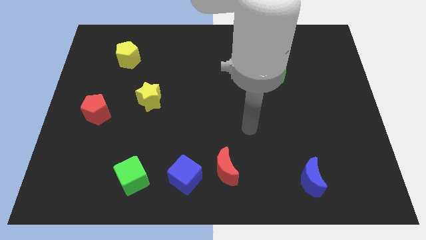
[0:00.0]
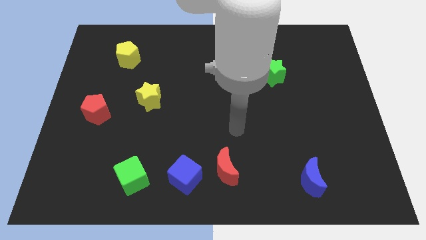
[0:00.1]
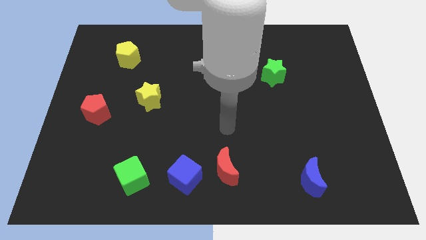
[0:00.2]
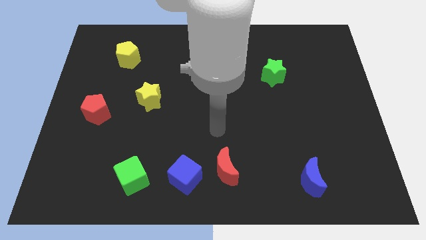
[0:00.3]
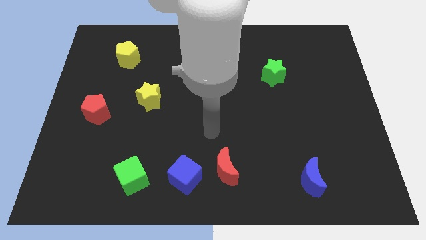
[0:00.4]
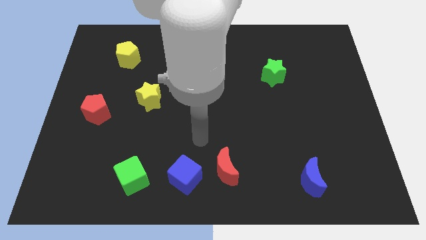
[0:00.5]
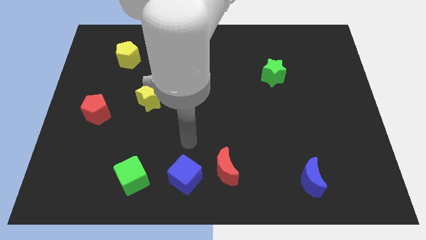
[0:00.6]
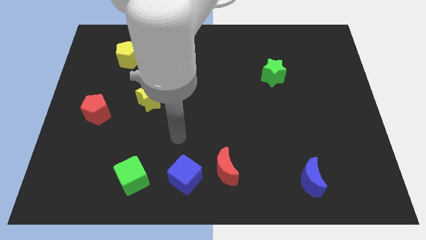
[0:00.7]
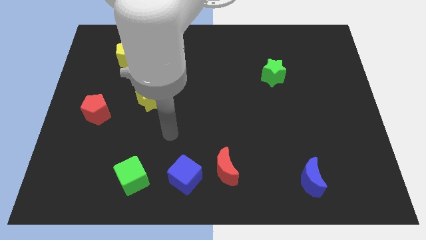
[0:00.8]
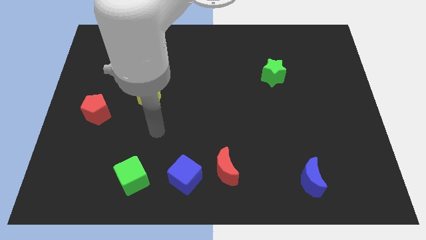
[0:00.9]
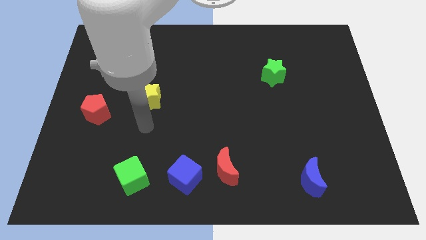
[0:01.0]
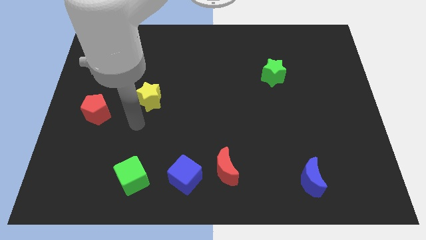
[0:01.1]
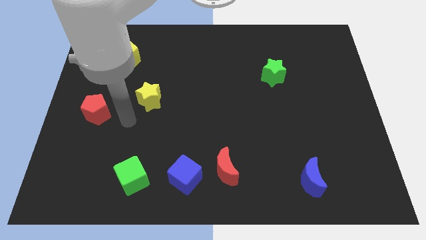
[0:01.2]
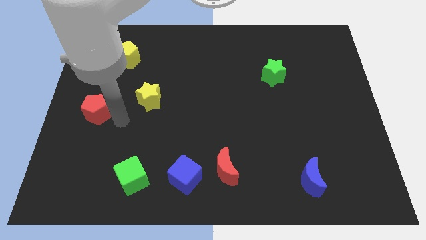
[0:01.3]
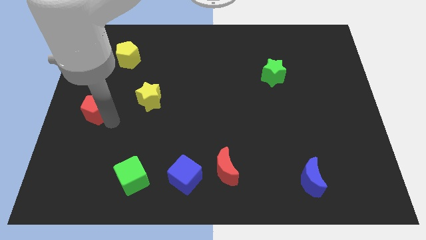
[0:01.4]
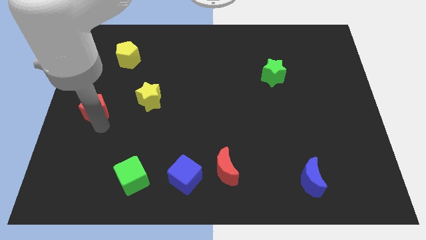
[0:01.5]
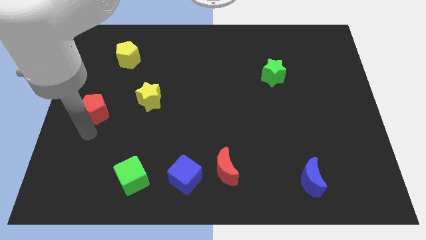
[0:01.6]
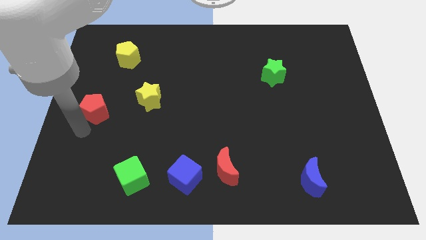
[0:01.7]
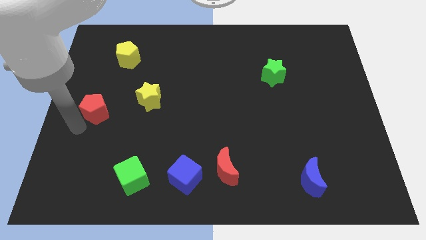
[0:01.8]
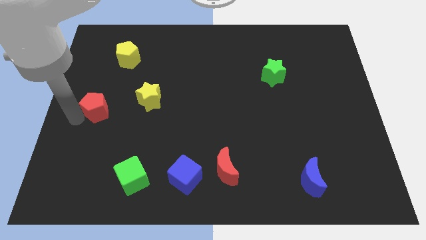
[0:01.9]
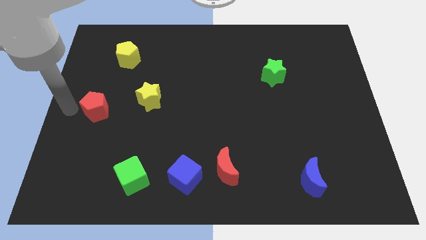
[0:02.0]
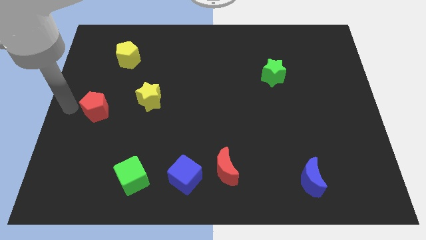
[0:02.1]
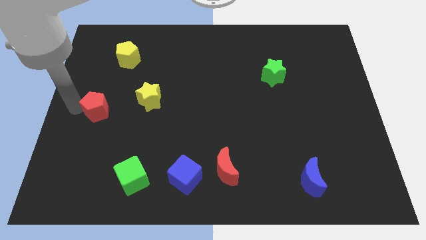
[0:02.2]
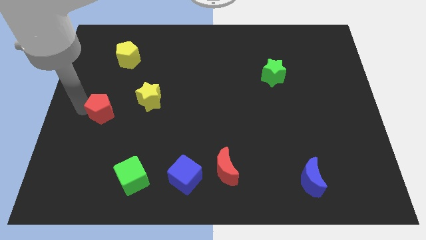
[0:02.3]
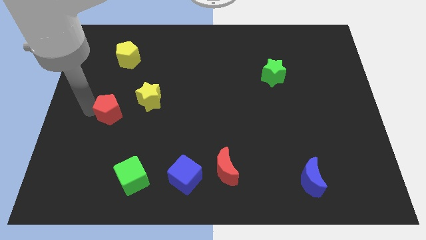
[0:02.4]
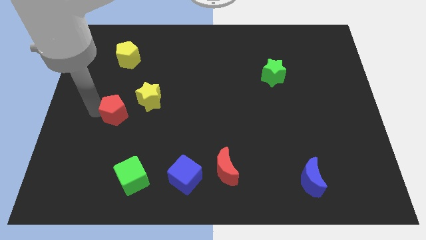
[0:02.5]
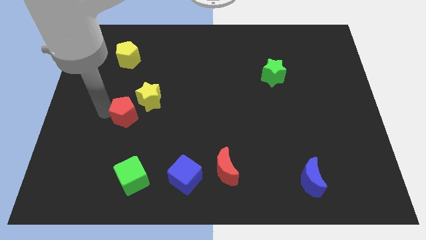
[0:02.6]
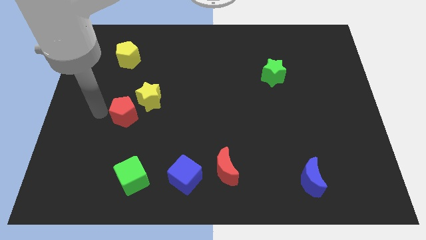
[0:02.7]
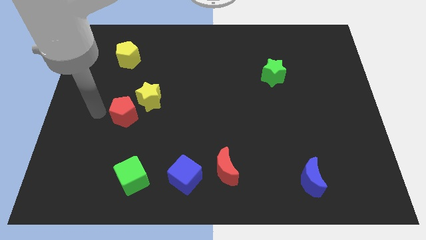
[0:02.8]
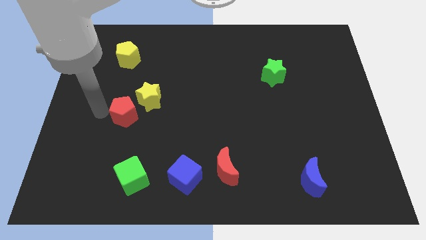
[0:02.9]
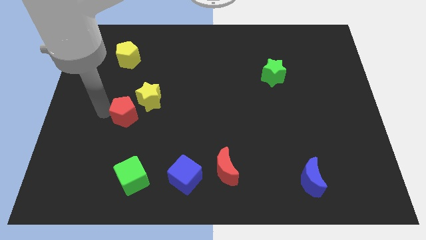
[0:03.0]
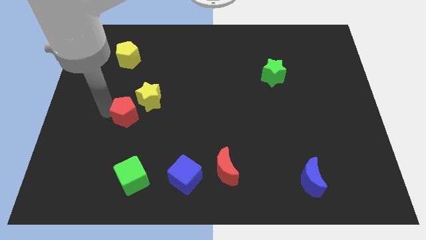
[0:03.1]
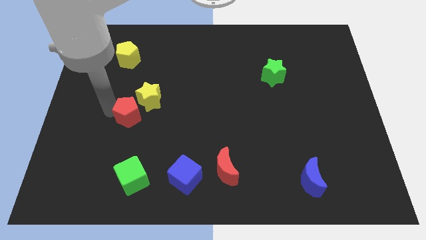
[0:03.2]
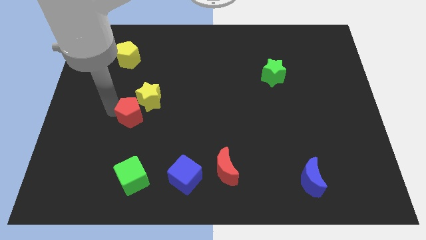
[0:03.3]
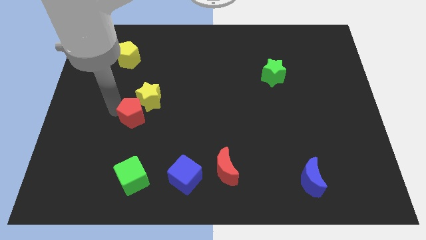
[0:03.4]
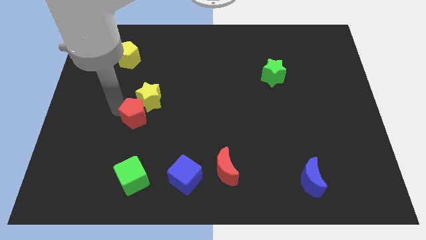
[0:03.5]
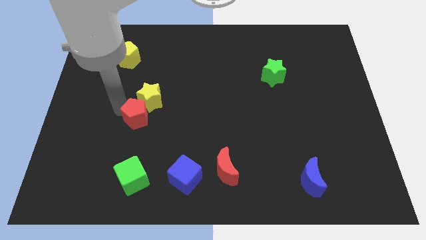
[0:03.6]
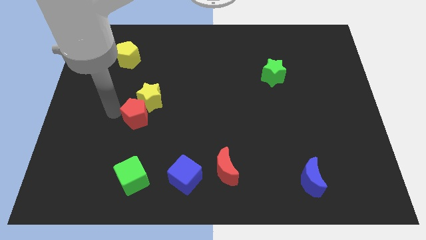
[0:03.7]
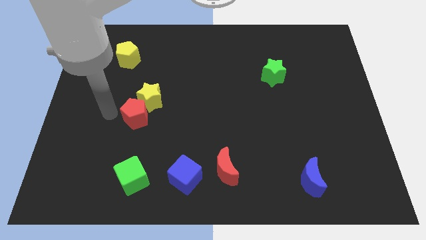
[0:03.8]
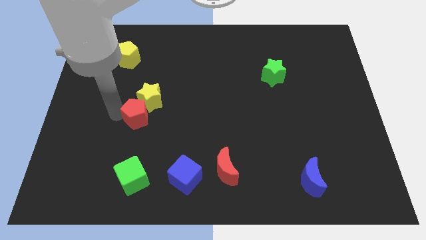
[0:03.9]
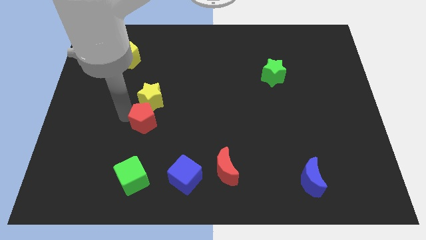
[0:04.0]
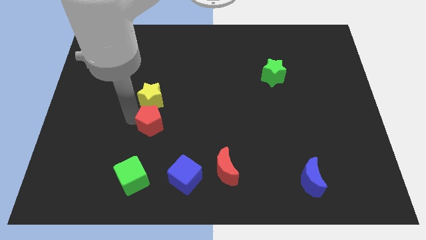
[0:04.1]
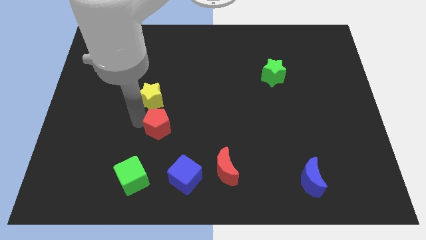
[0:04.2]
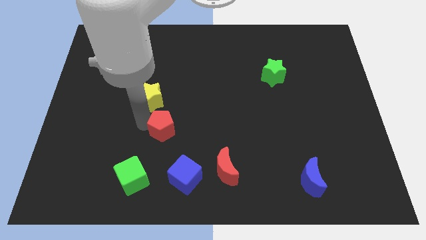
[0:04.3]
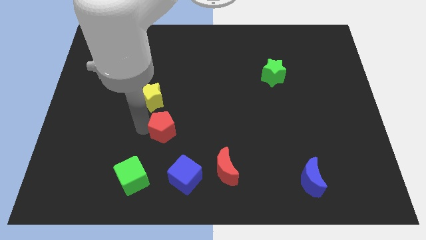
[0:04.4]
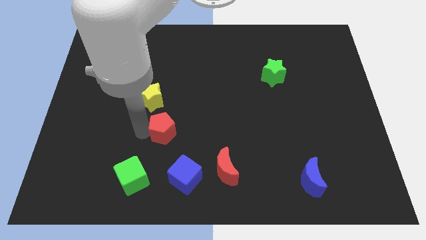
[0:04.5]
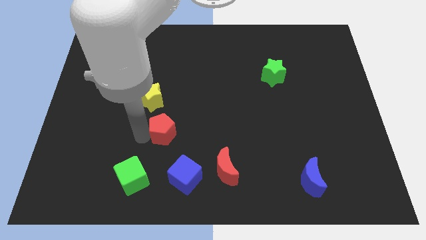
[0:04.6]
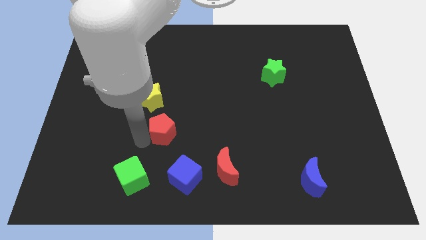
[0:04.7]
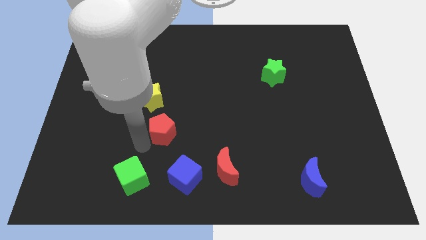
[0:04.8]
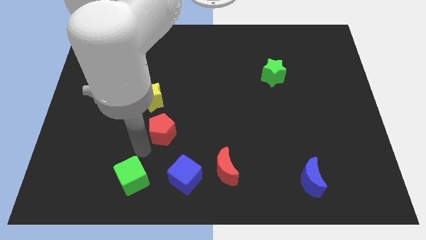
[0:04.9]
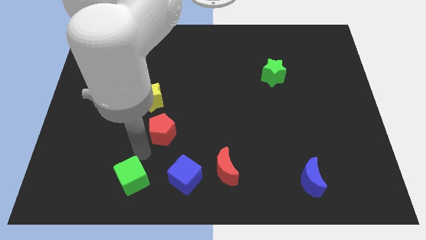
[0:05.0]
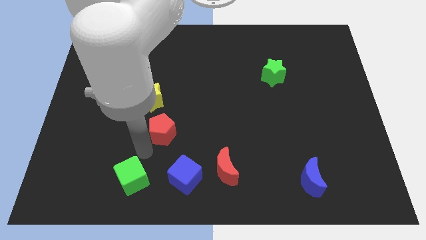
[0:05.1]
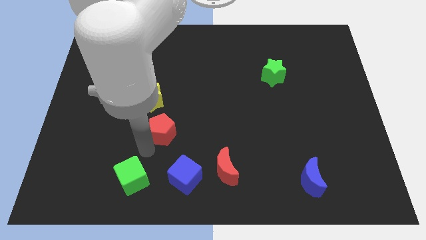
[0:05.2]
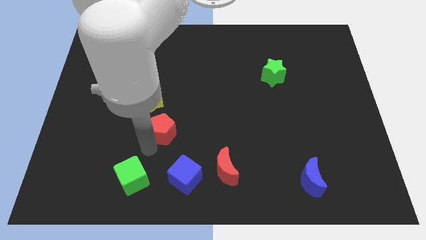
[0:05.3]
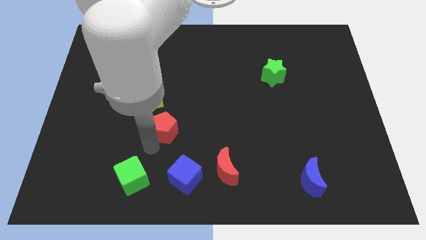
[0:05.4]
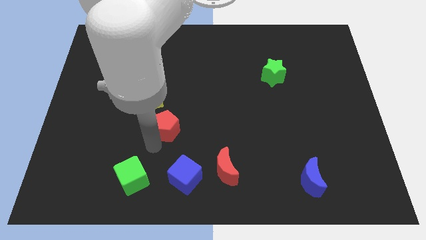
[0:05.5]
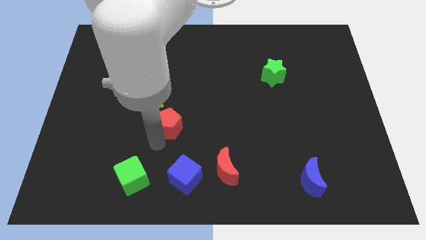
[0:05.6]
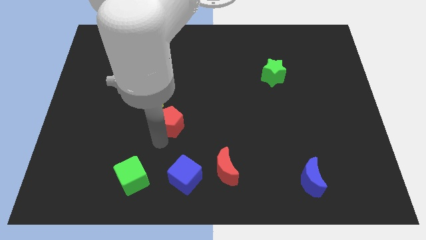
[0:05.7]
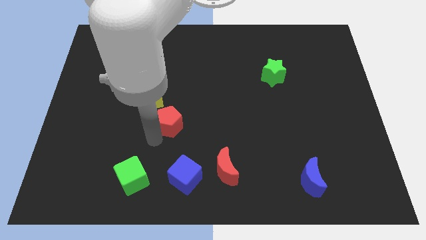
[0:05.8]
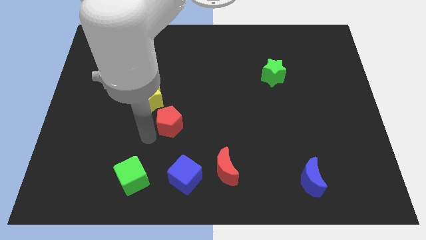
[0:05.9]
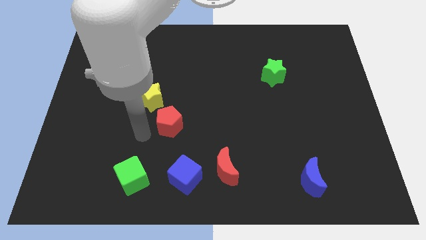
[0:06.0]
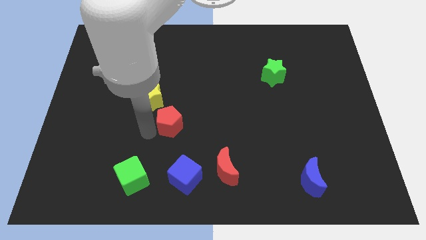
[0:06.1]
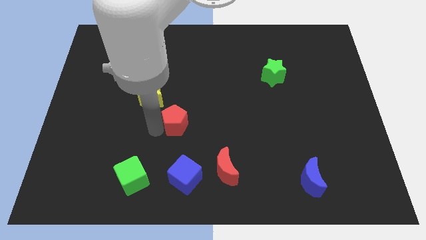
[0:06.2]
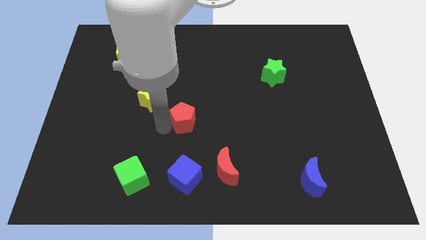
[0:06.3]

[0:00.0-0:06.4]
push the red pentagon right

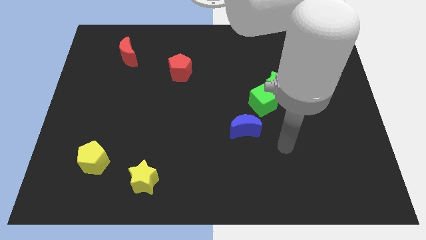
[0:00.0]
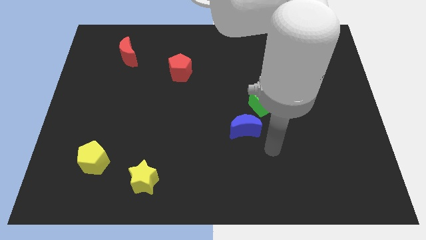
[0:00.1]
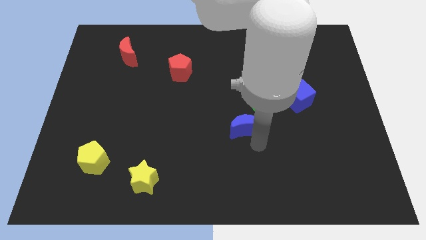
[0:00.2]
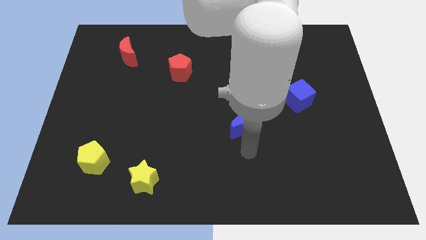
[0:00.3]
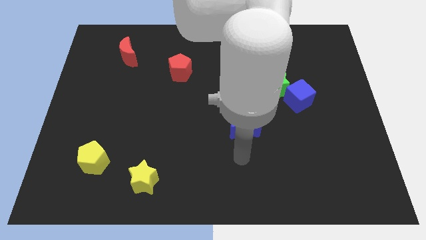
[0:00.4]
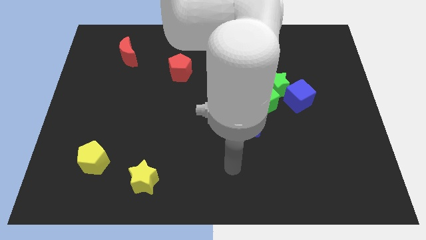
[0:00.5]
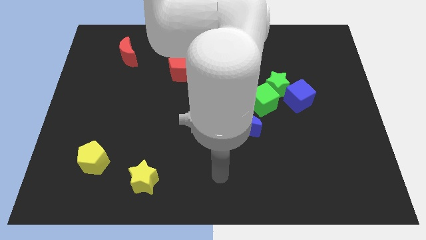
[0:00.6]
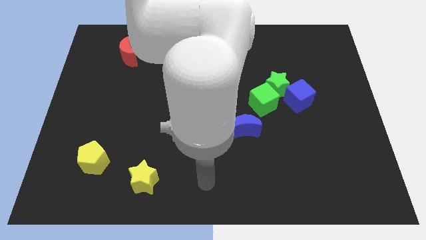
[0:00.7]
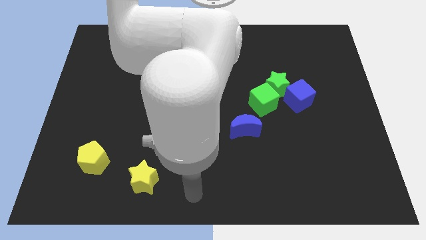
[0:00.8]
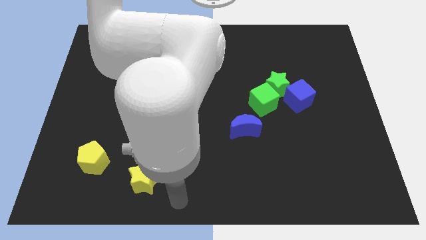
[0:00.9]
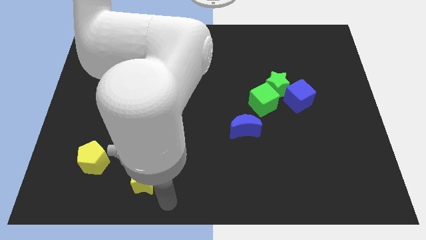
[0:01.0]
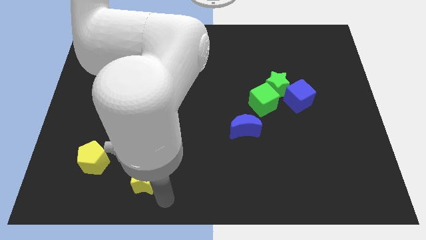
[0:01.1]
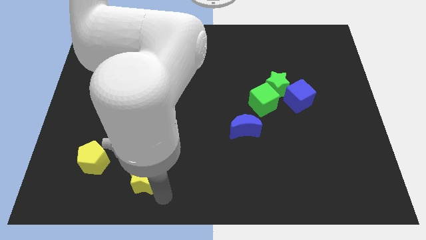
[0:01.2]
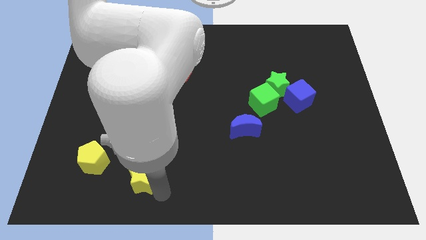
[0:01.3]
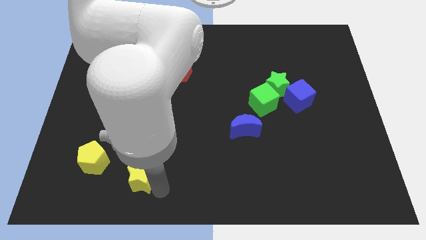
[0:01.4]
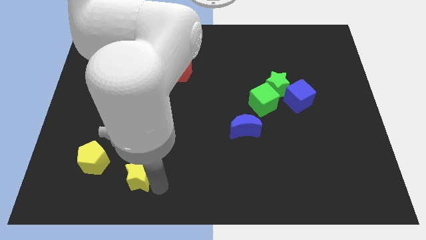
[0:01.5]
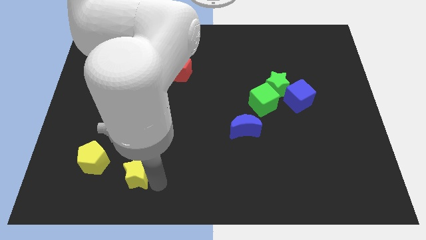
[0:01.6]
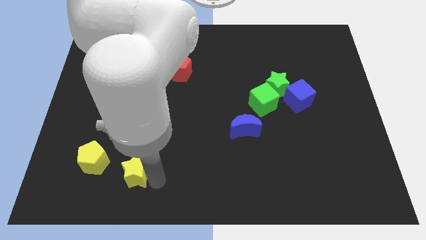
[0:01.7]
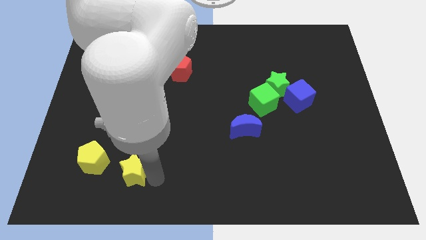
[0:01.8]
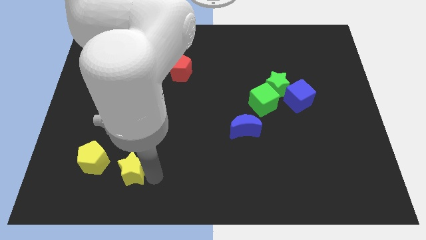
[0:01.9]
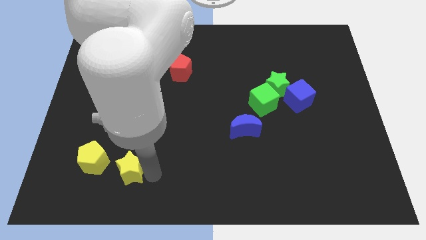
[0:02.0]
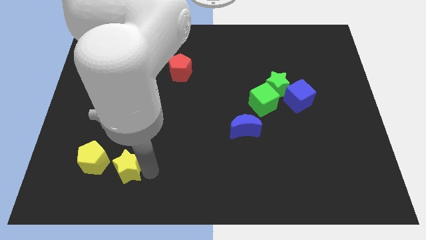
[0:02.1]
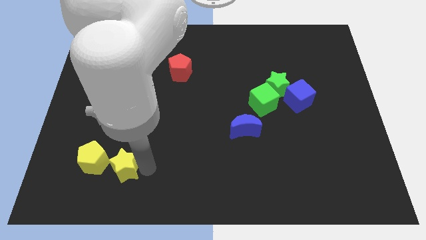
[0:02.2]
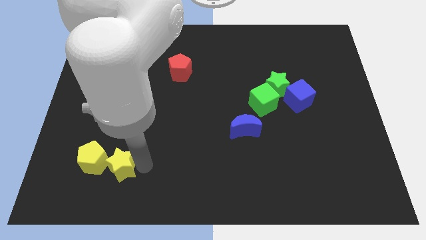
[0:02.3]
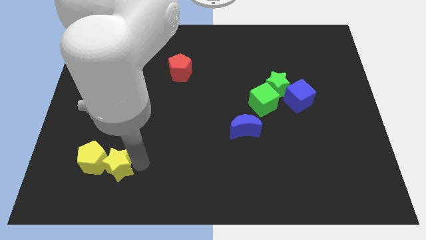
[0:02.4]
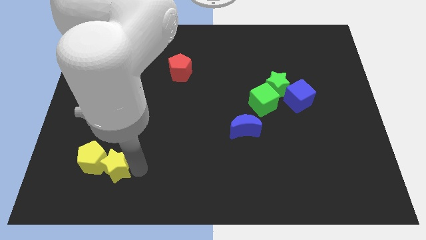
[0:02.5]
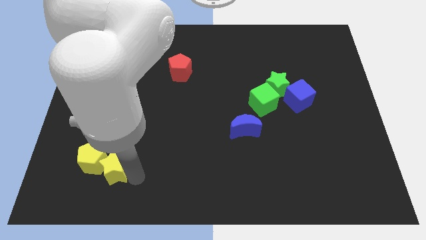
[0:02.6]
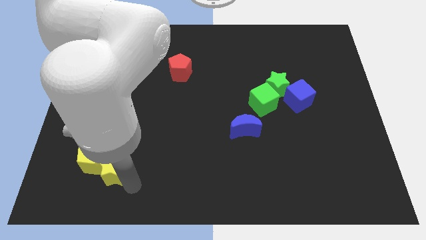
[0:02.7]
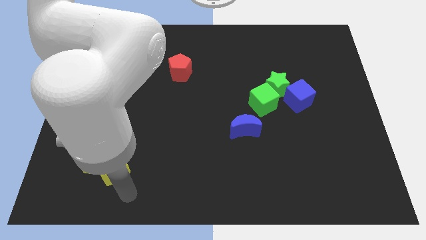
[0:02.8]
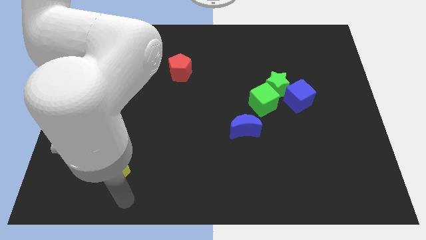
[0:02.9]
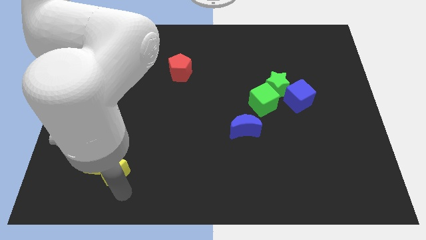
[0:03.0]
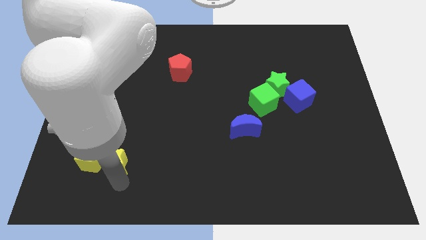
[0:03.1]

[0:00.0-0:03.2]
slightly push the yellow star upwards and left
